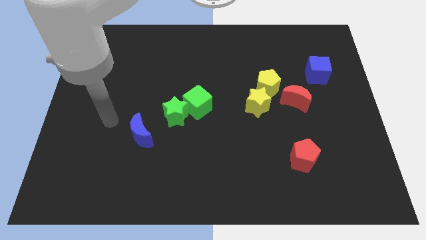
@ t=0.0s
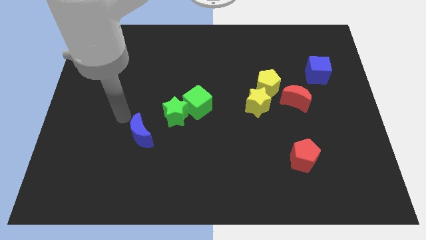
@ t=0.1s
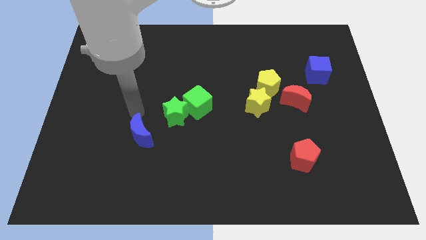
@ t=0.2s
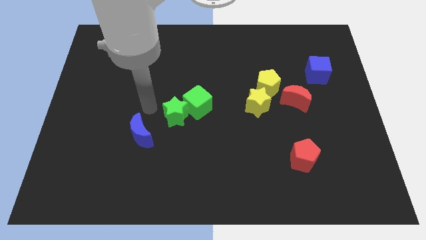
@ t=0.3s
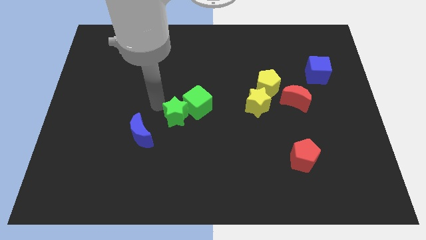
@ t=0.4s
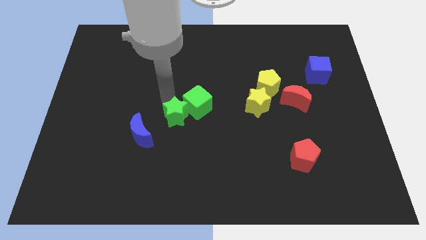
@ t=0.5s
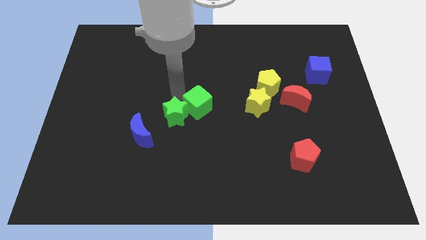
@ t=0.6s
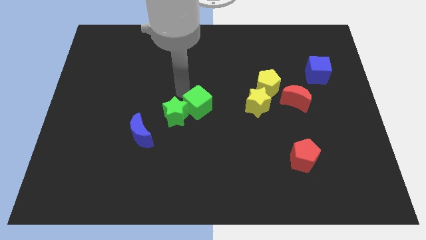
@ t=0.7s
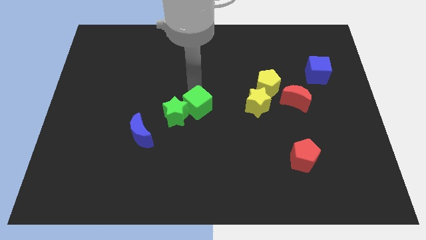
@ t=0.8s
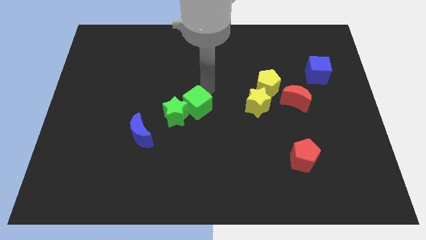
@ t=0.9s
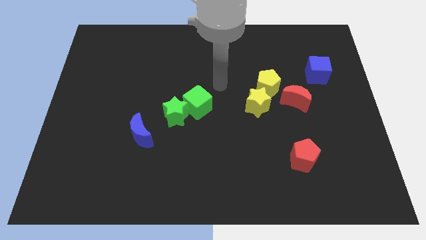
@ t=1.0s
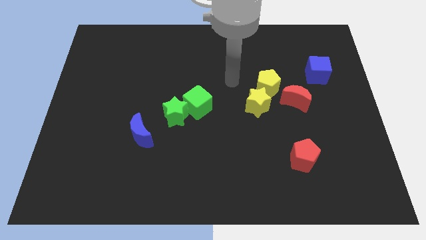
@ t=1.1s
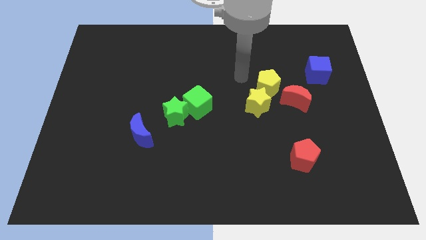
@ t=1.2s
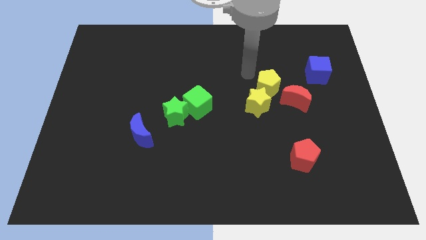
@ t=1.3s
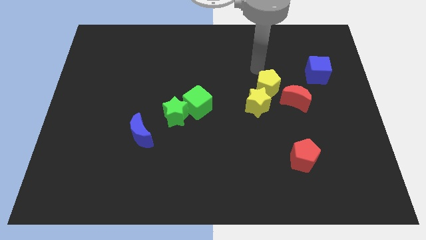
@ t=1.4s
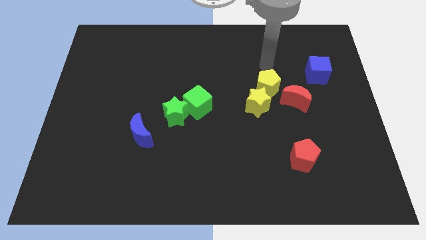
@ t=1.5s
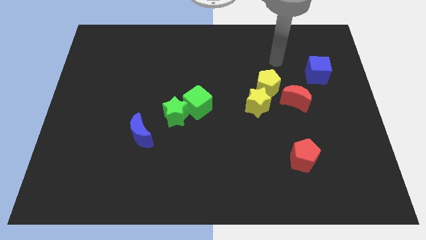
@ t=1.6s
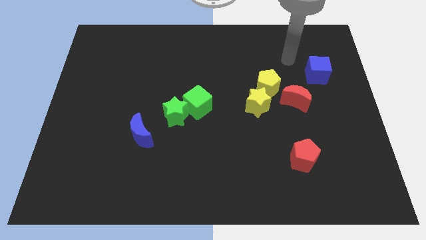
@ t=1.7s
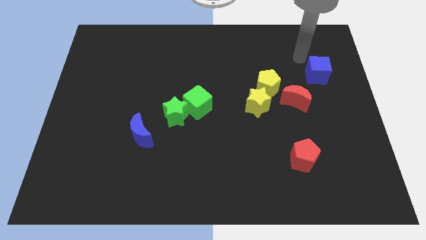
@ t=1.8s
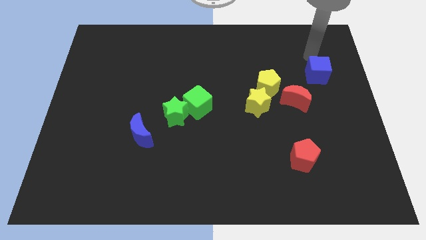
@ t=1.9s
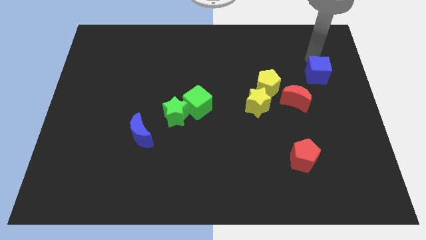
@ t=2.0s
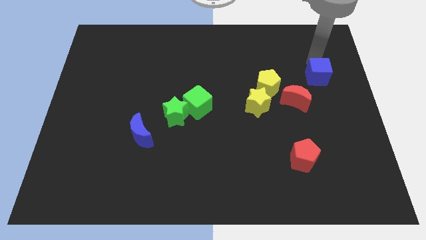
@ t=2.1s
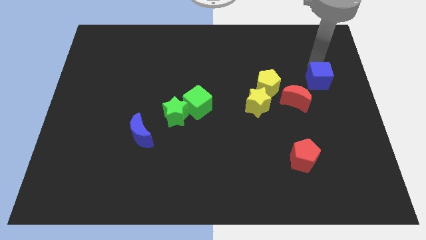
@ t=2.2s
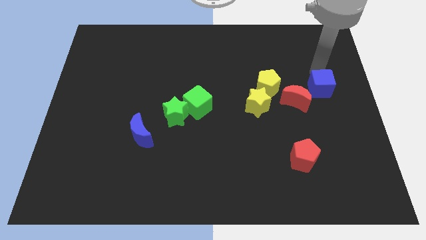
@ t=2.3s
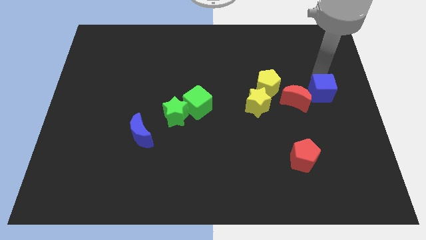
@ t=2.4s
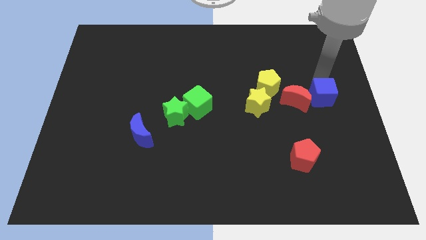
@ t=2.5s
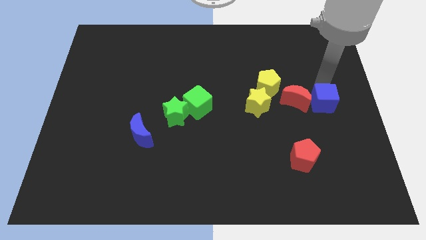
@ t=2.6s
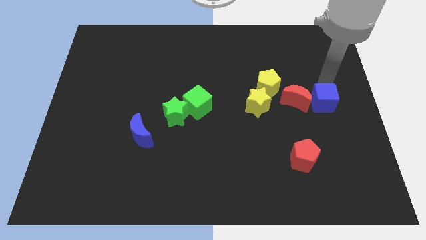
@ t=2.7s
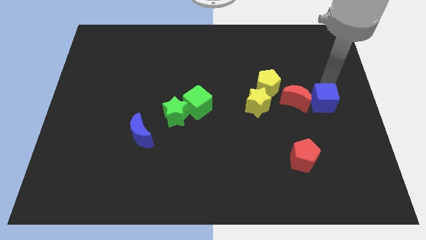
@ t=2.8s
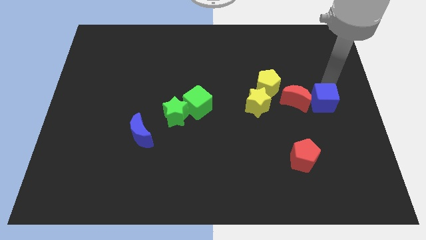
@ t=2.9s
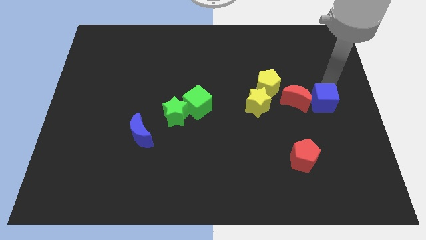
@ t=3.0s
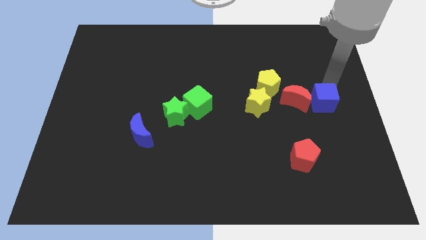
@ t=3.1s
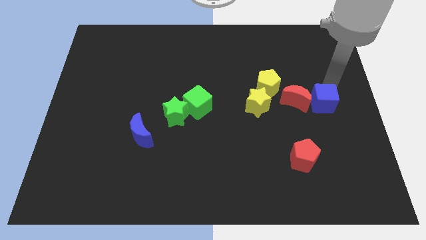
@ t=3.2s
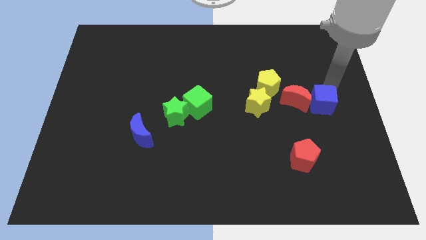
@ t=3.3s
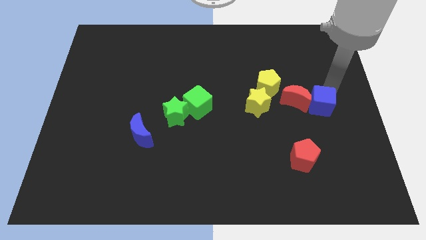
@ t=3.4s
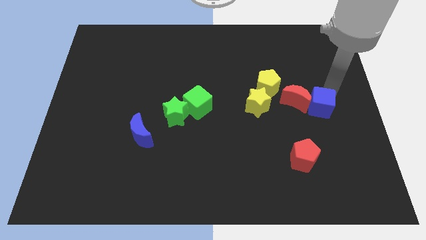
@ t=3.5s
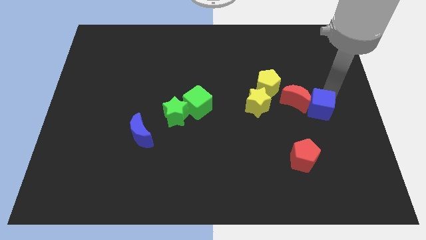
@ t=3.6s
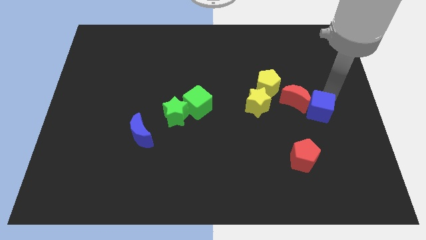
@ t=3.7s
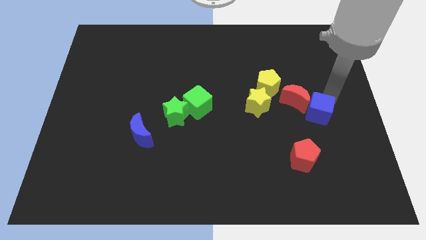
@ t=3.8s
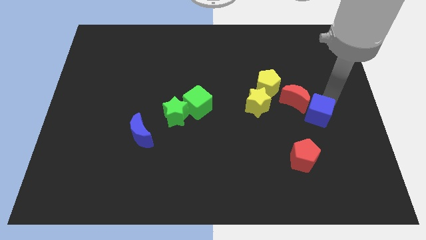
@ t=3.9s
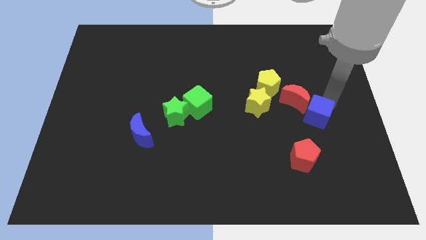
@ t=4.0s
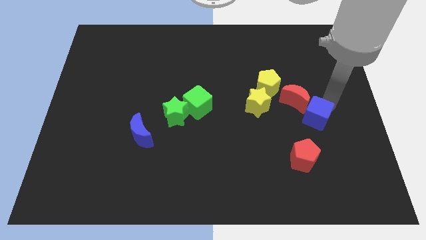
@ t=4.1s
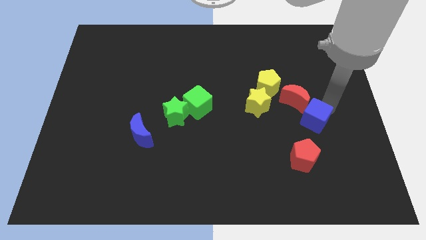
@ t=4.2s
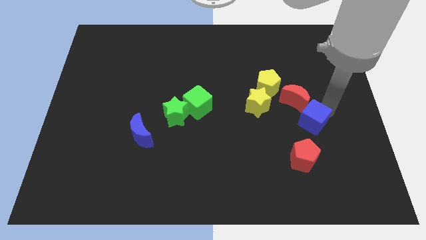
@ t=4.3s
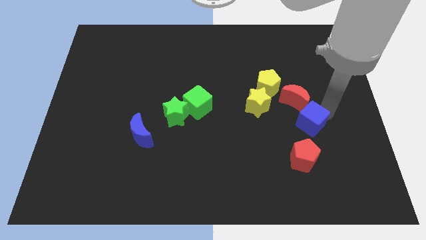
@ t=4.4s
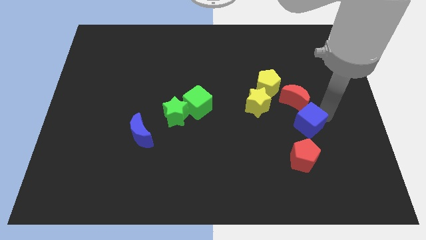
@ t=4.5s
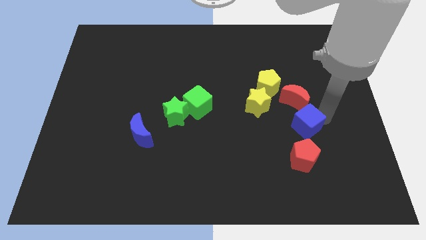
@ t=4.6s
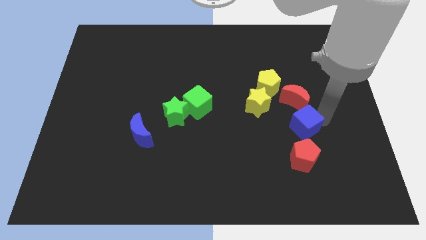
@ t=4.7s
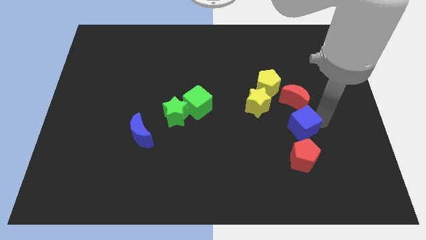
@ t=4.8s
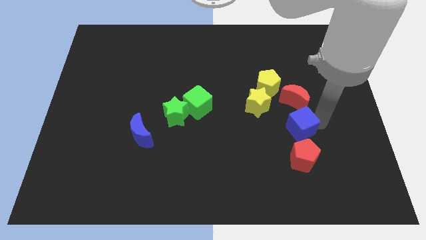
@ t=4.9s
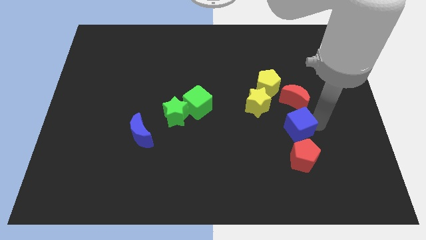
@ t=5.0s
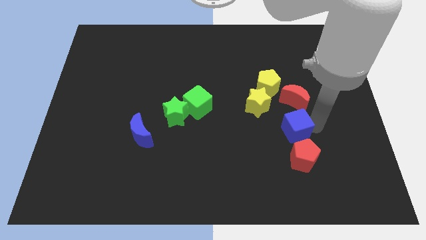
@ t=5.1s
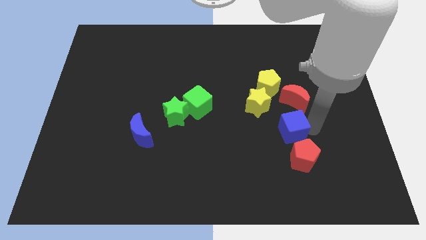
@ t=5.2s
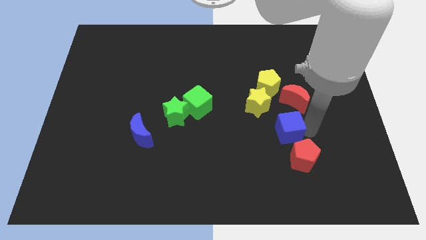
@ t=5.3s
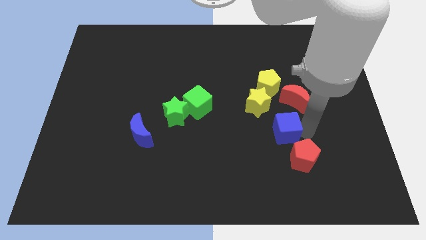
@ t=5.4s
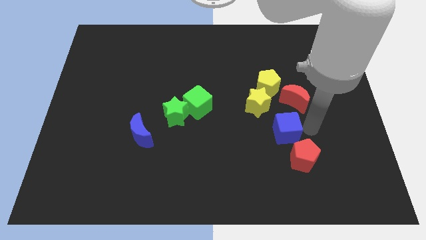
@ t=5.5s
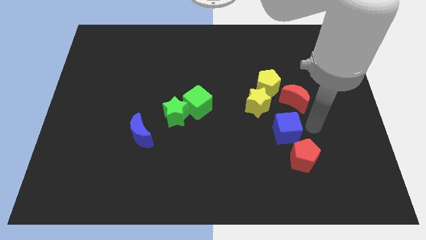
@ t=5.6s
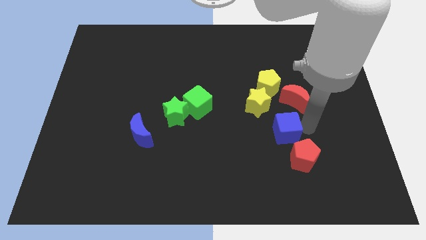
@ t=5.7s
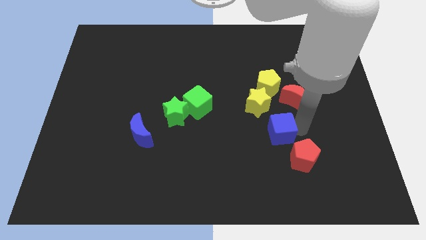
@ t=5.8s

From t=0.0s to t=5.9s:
push the blue cube downwards and to the left

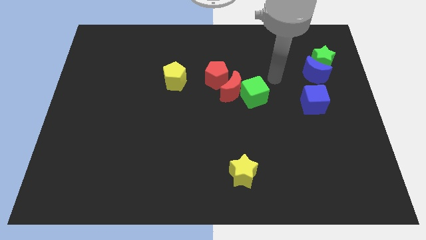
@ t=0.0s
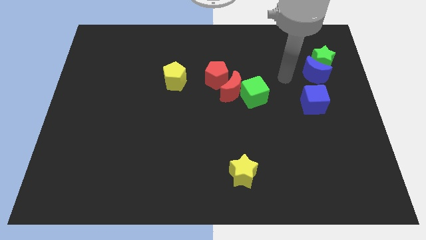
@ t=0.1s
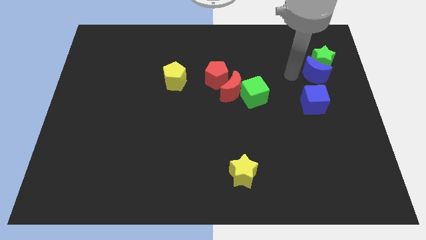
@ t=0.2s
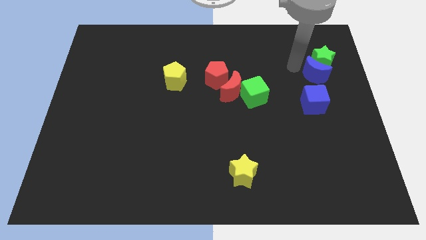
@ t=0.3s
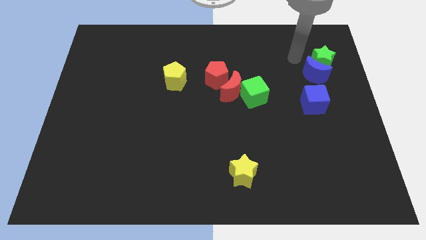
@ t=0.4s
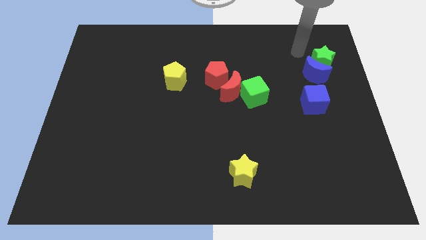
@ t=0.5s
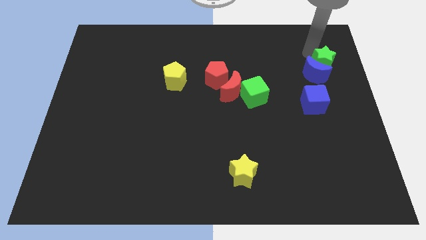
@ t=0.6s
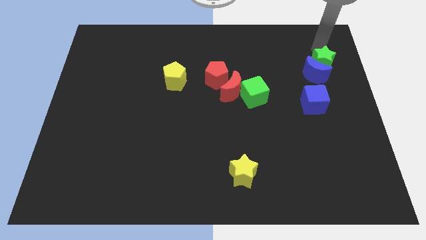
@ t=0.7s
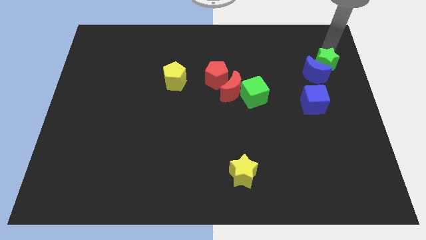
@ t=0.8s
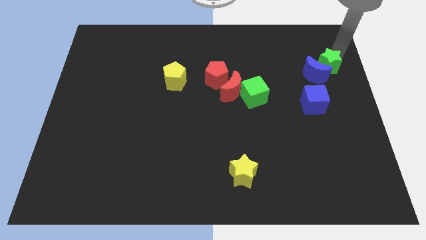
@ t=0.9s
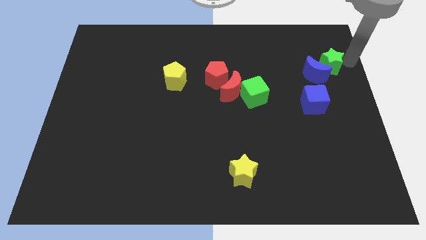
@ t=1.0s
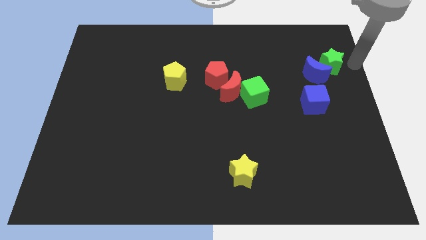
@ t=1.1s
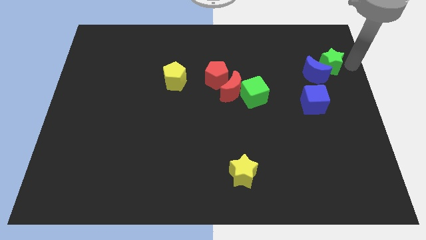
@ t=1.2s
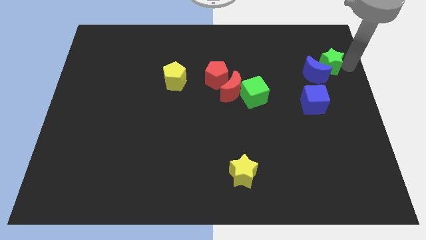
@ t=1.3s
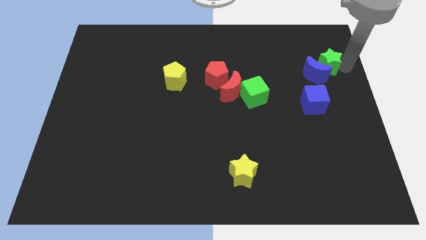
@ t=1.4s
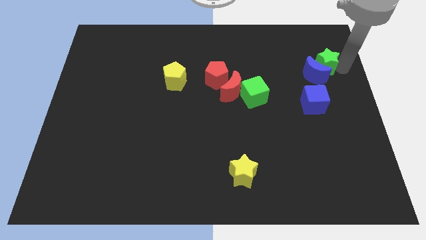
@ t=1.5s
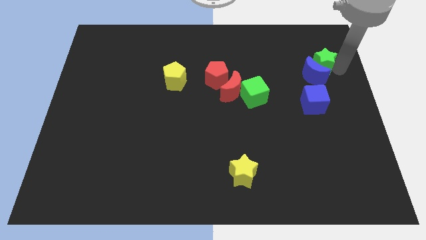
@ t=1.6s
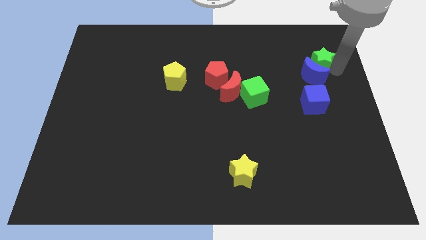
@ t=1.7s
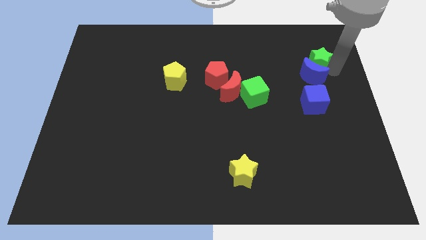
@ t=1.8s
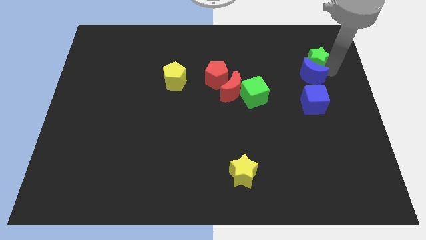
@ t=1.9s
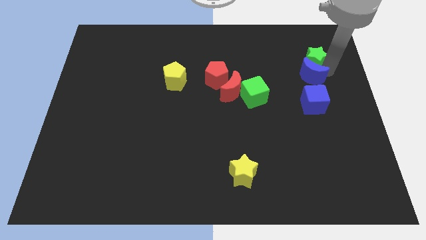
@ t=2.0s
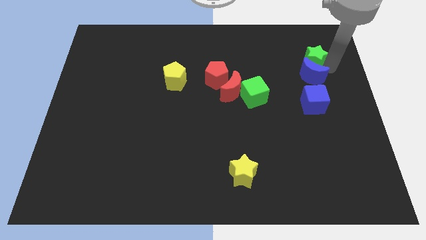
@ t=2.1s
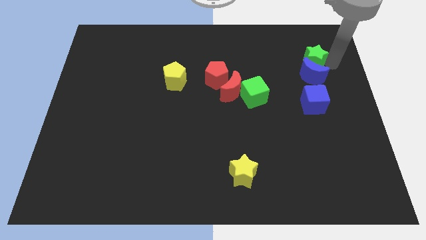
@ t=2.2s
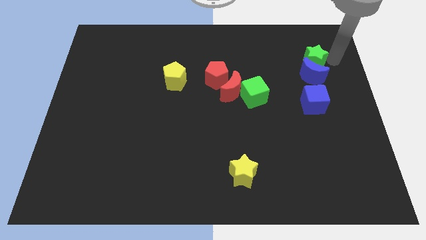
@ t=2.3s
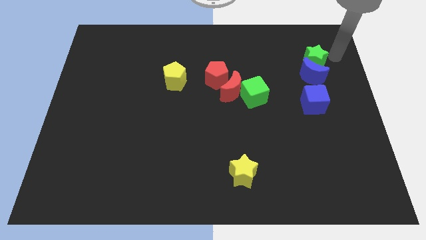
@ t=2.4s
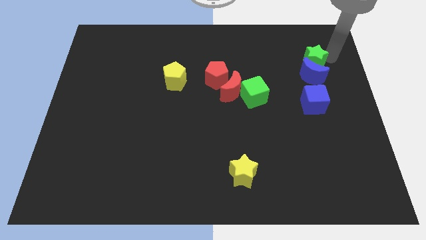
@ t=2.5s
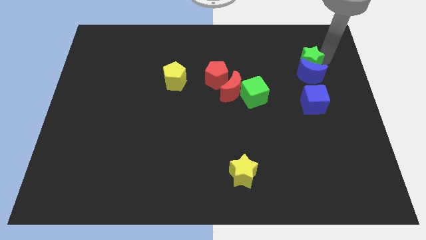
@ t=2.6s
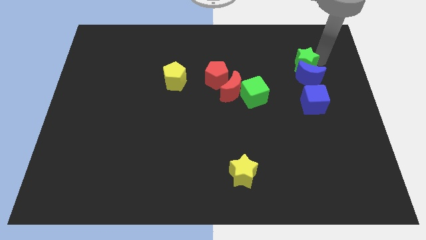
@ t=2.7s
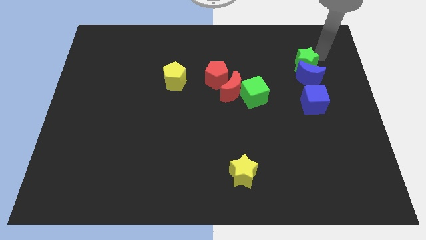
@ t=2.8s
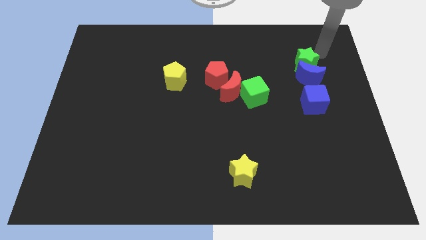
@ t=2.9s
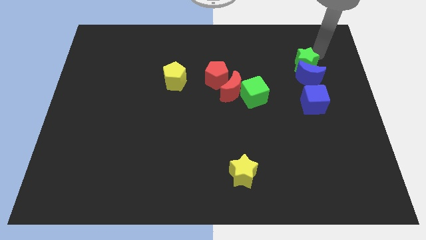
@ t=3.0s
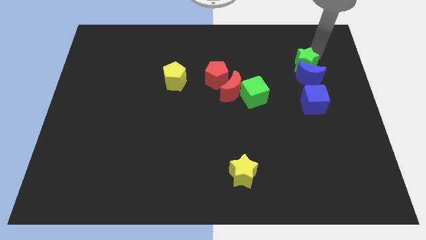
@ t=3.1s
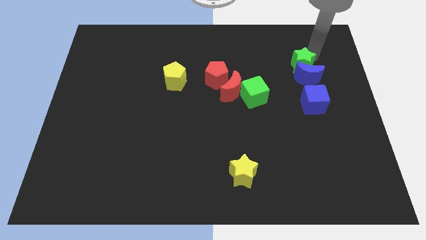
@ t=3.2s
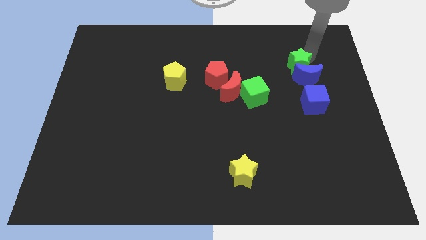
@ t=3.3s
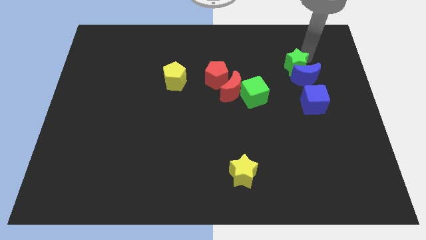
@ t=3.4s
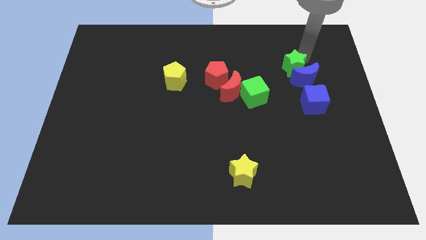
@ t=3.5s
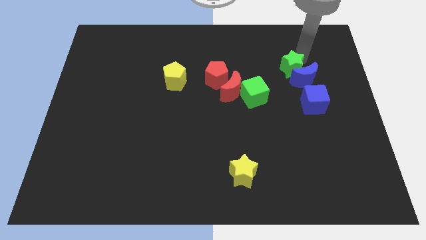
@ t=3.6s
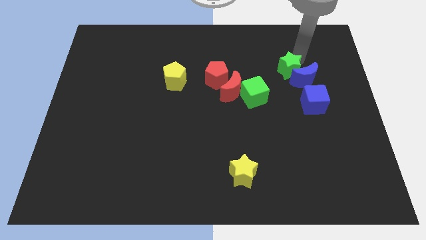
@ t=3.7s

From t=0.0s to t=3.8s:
slide the green star down and left diagonally slightly
